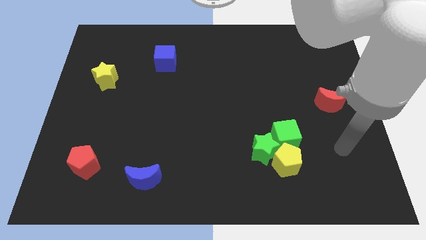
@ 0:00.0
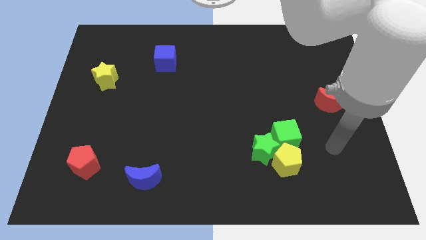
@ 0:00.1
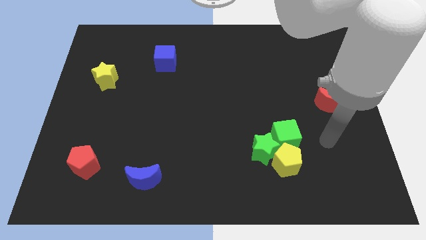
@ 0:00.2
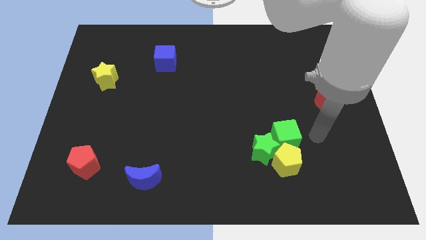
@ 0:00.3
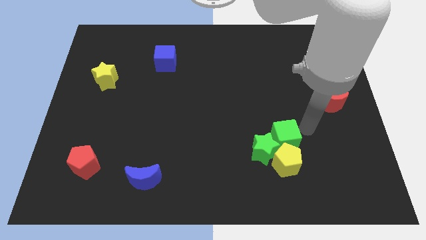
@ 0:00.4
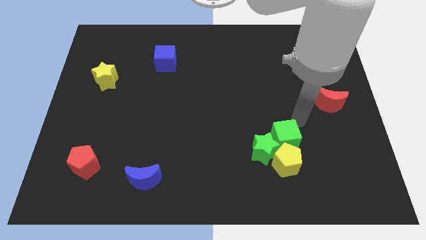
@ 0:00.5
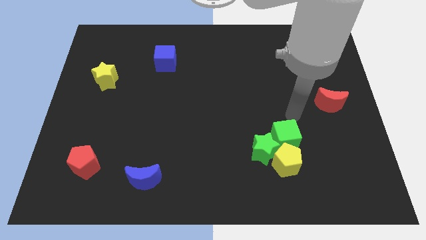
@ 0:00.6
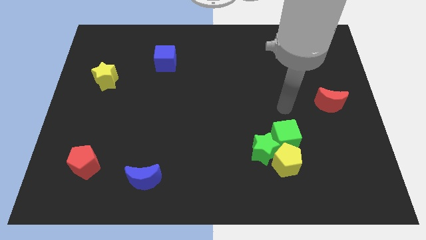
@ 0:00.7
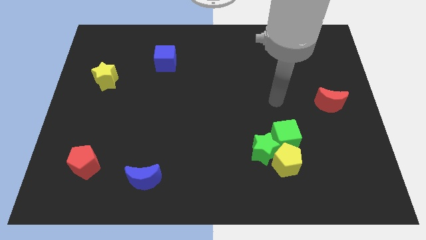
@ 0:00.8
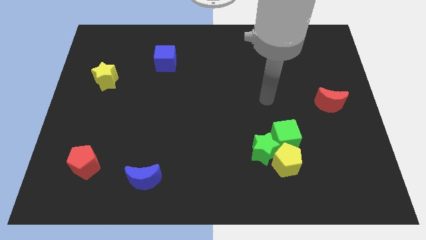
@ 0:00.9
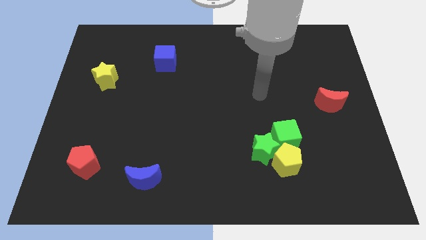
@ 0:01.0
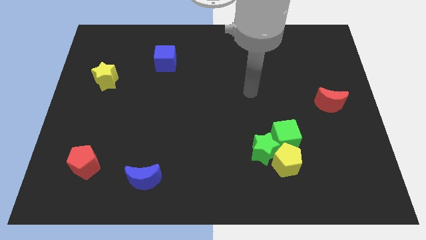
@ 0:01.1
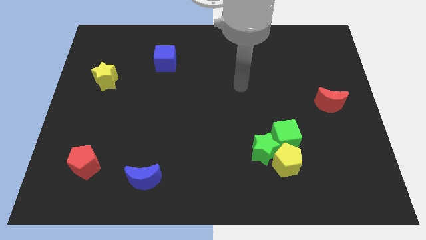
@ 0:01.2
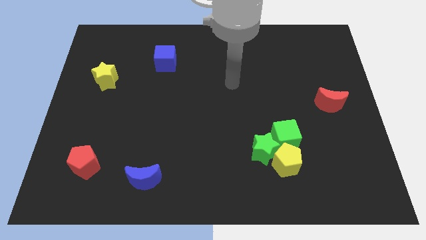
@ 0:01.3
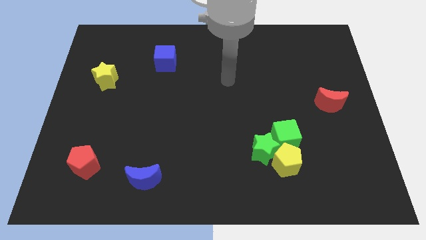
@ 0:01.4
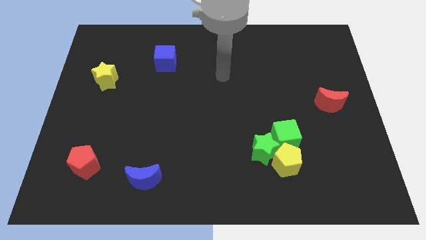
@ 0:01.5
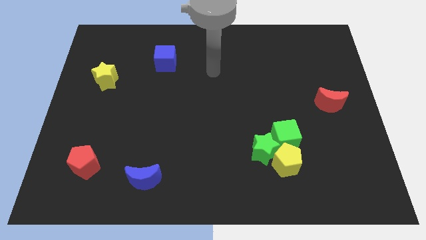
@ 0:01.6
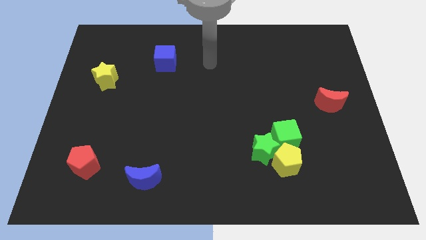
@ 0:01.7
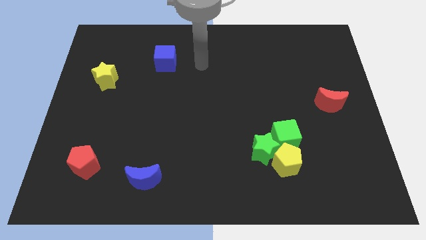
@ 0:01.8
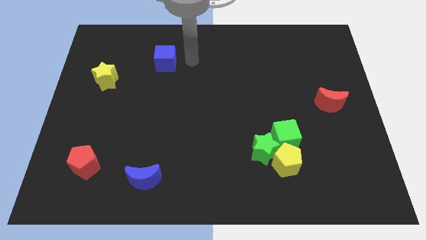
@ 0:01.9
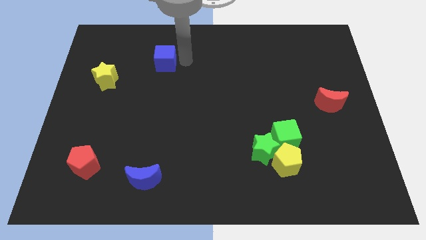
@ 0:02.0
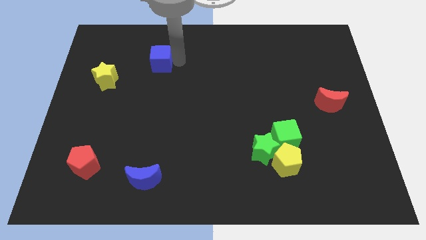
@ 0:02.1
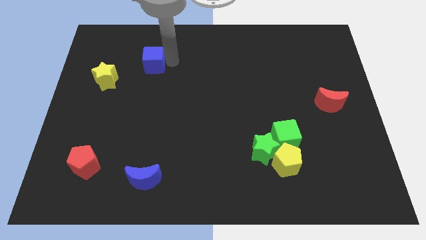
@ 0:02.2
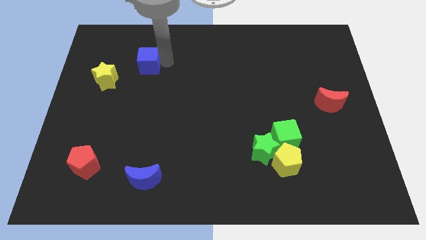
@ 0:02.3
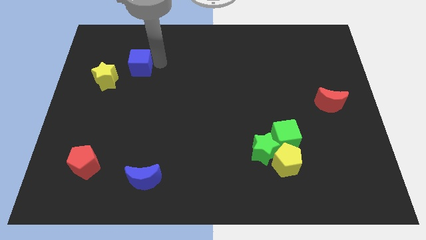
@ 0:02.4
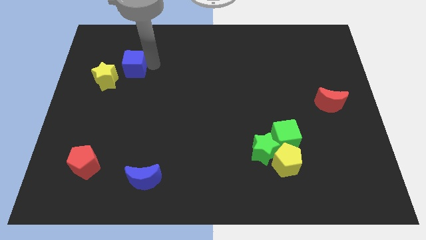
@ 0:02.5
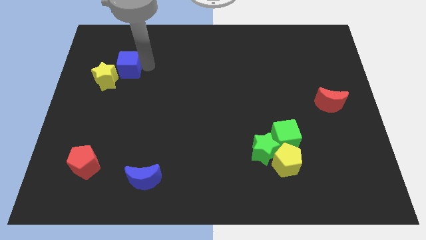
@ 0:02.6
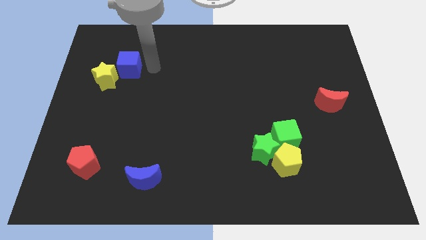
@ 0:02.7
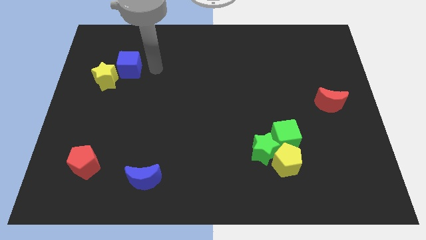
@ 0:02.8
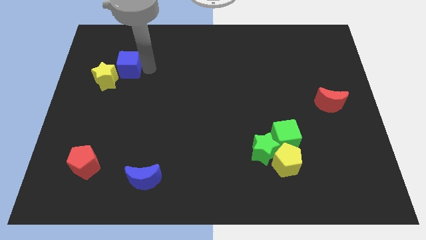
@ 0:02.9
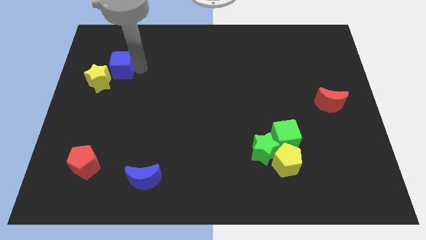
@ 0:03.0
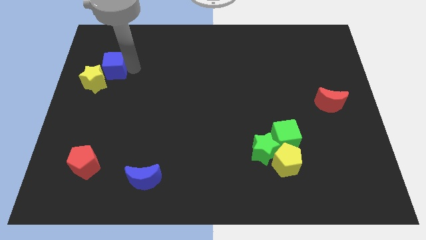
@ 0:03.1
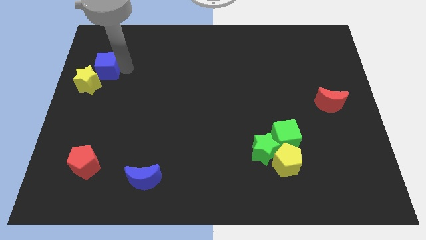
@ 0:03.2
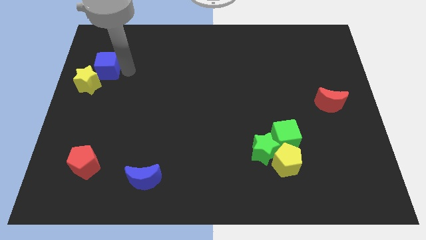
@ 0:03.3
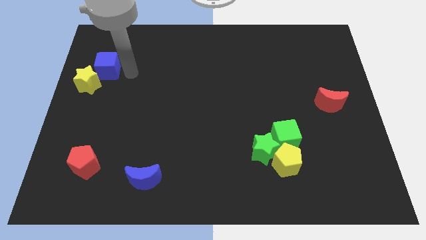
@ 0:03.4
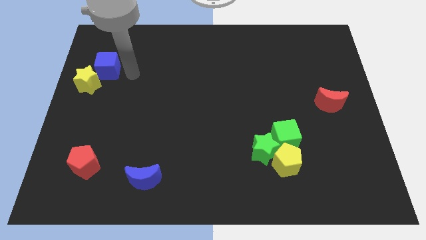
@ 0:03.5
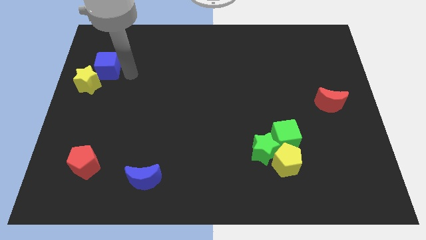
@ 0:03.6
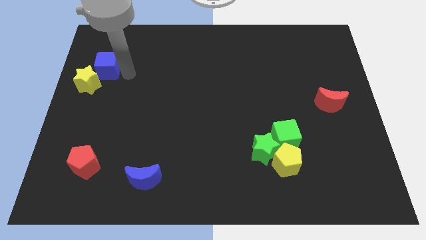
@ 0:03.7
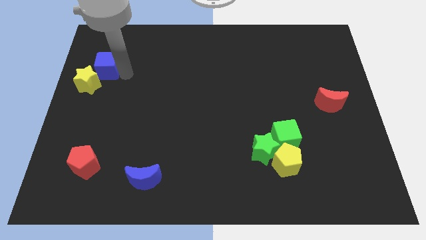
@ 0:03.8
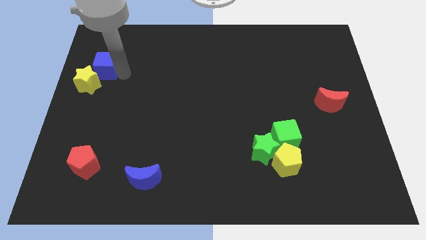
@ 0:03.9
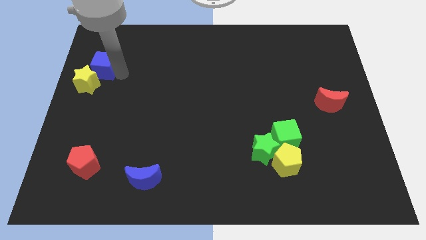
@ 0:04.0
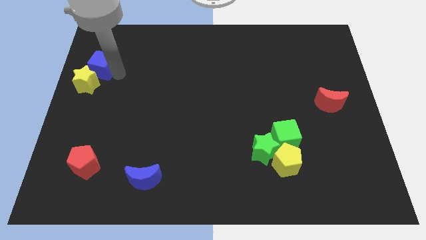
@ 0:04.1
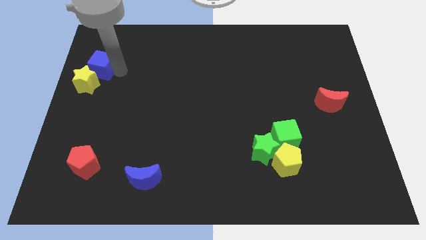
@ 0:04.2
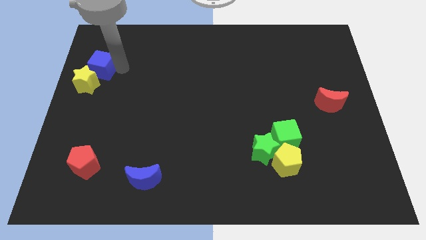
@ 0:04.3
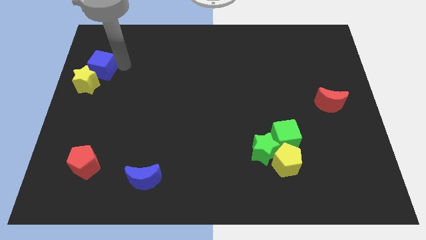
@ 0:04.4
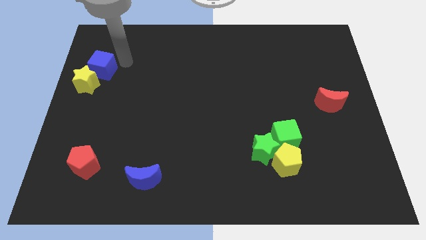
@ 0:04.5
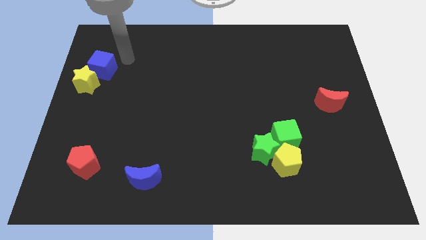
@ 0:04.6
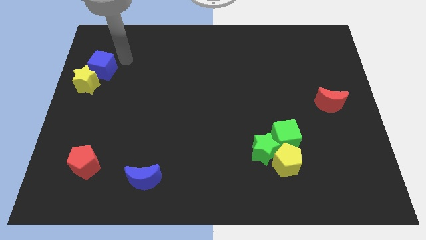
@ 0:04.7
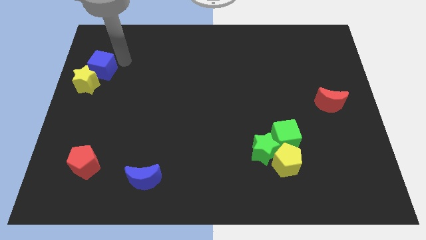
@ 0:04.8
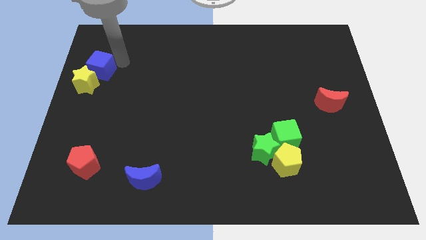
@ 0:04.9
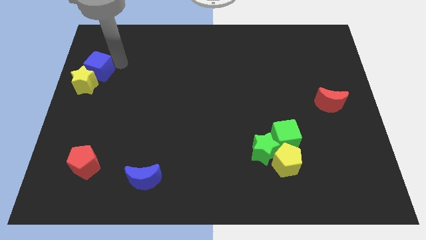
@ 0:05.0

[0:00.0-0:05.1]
push the blue cube to the center left

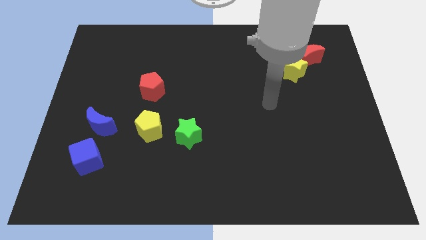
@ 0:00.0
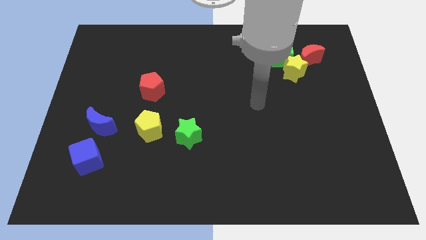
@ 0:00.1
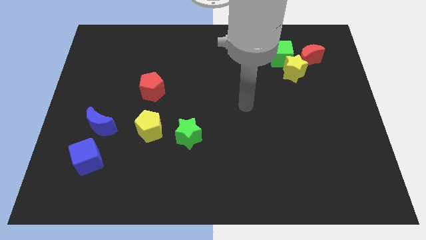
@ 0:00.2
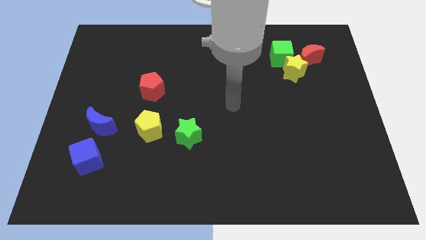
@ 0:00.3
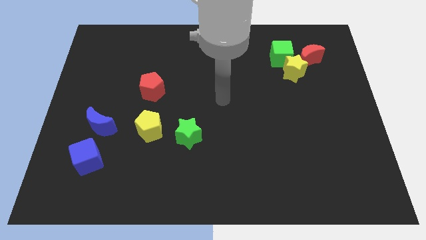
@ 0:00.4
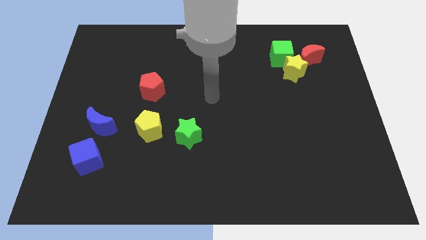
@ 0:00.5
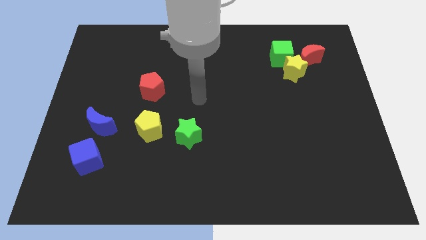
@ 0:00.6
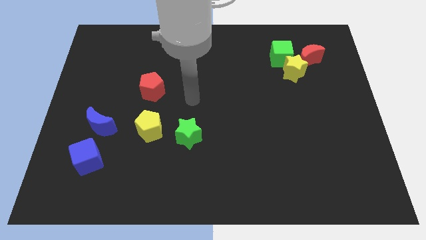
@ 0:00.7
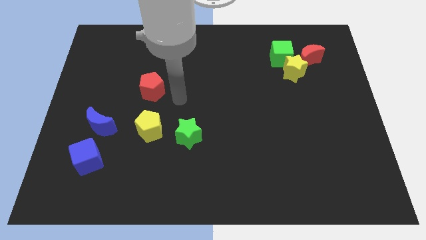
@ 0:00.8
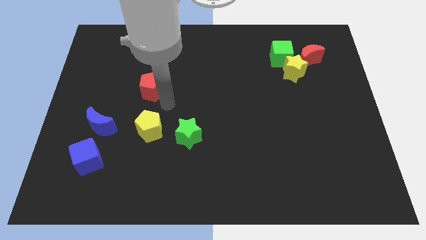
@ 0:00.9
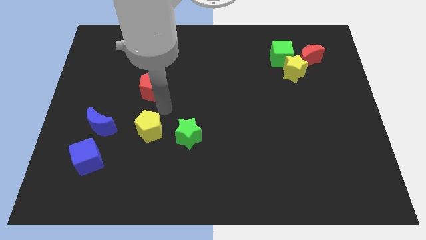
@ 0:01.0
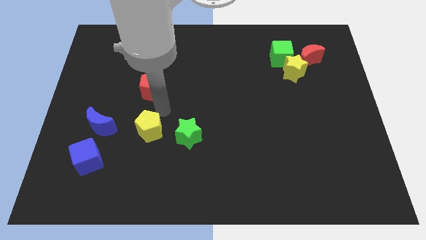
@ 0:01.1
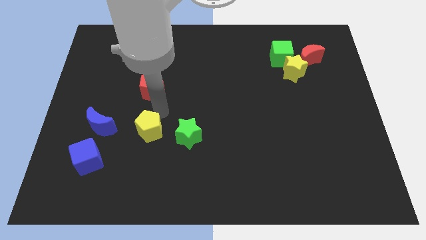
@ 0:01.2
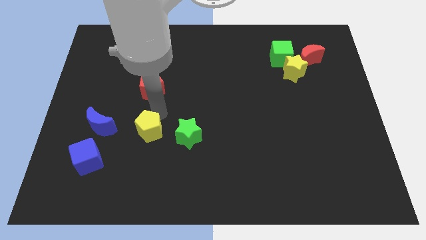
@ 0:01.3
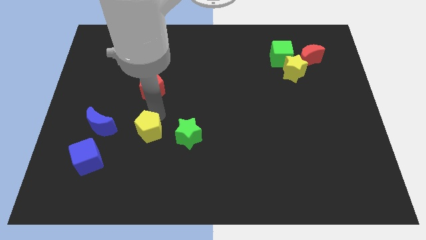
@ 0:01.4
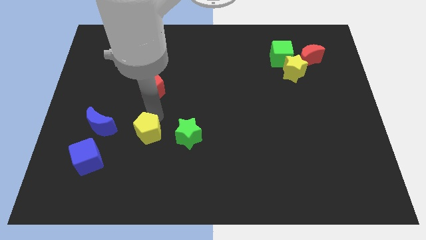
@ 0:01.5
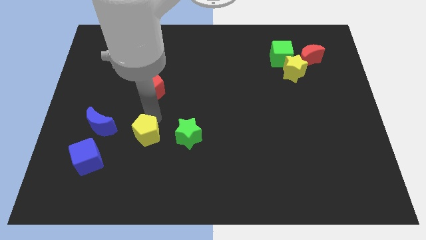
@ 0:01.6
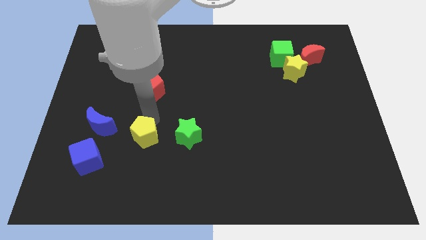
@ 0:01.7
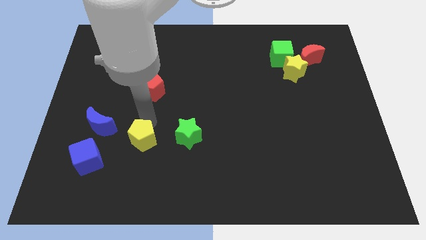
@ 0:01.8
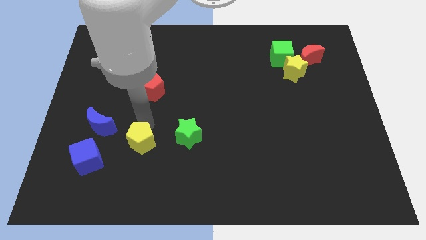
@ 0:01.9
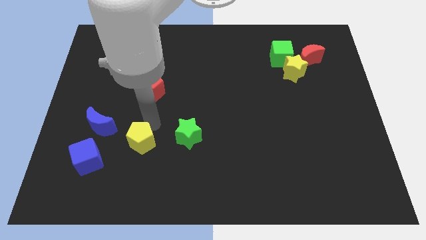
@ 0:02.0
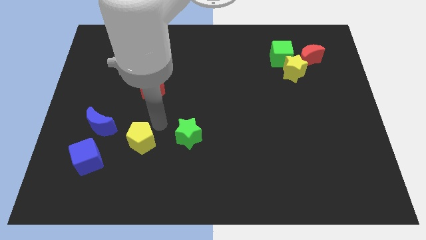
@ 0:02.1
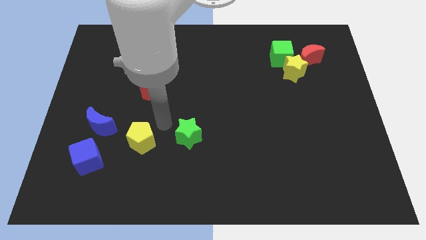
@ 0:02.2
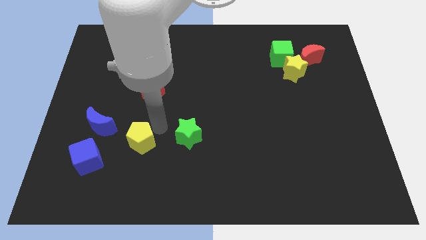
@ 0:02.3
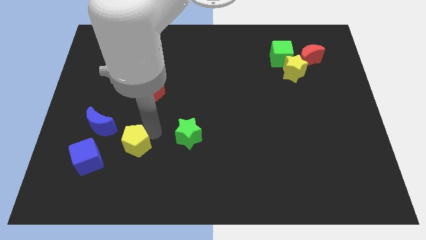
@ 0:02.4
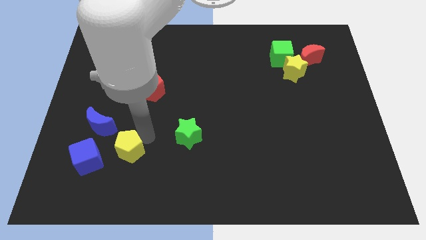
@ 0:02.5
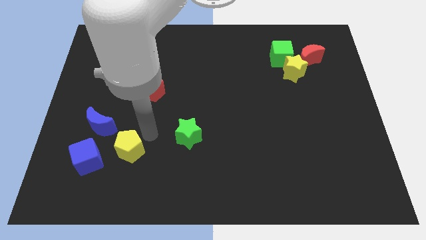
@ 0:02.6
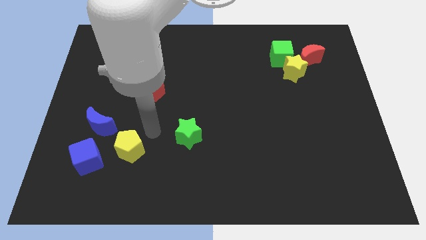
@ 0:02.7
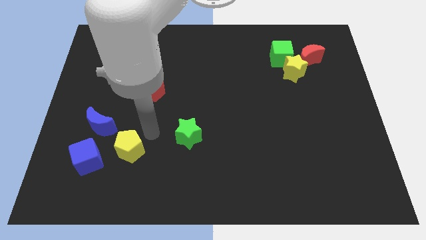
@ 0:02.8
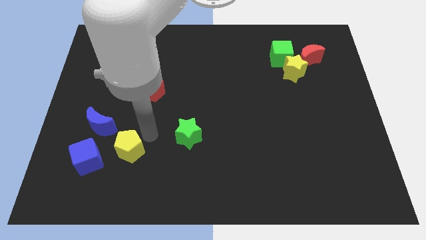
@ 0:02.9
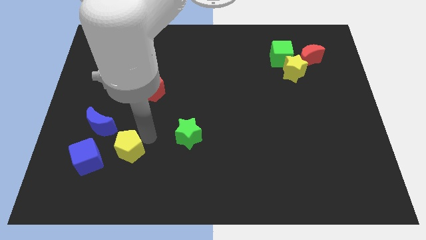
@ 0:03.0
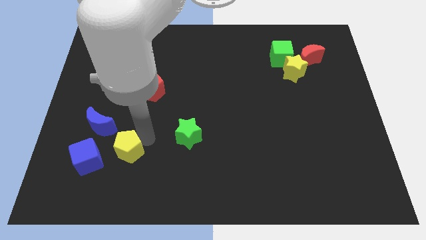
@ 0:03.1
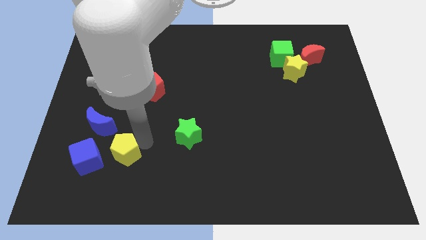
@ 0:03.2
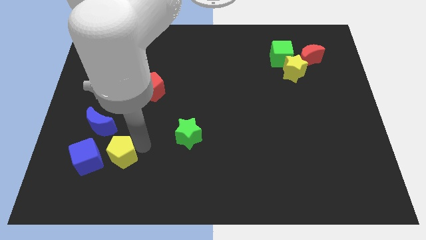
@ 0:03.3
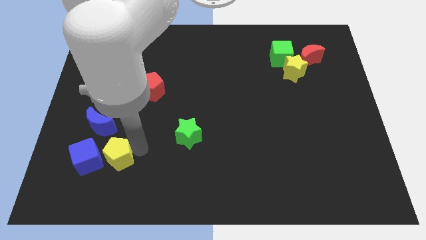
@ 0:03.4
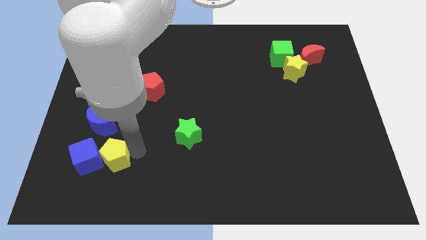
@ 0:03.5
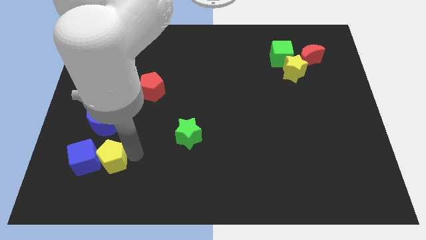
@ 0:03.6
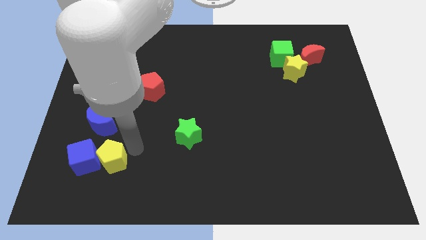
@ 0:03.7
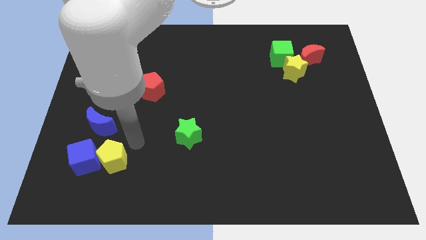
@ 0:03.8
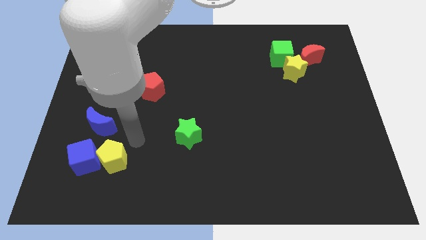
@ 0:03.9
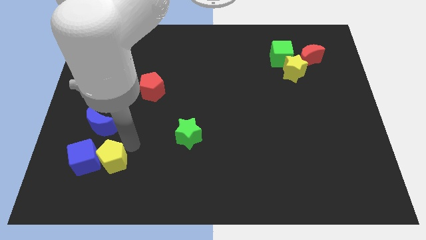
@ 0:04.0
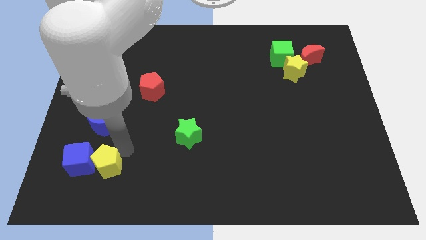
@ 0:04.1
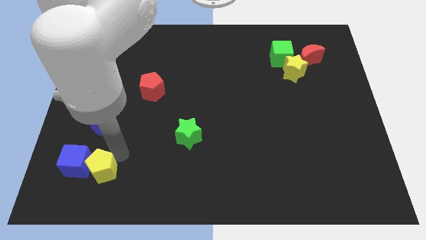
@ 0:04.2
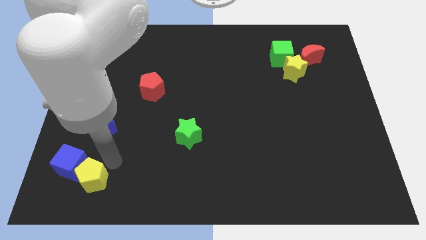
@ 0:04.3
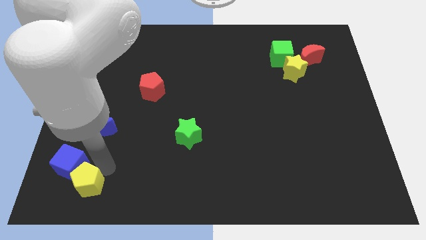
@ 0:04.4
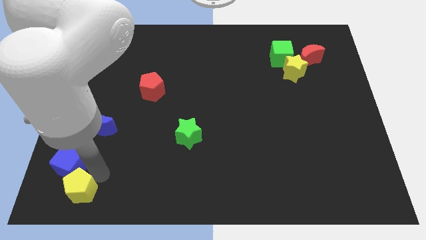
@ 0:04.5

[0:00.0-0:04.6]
put the yellow pentagon to the bottom left corner
